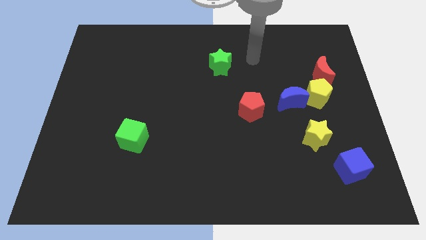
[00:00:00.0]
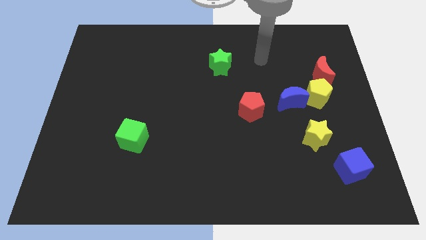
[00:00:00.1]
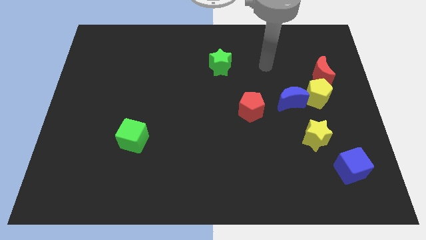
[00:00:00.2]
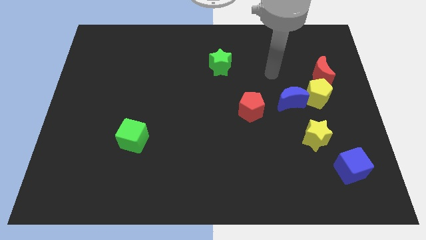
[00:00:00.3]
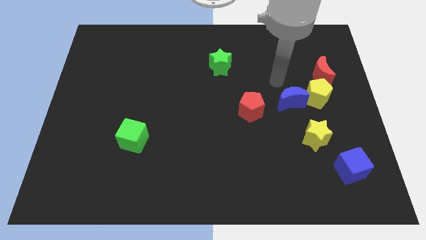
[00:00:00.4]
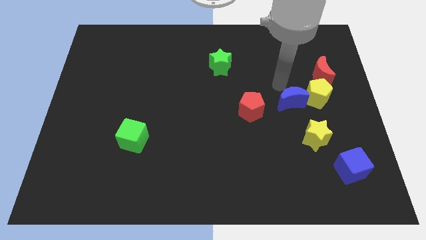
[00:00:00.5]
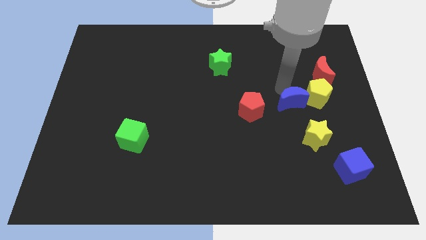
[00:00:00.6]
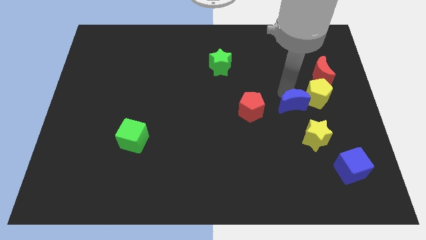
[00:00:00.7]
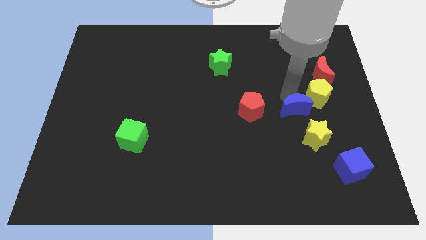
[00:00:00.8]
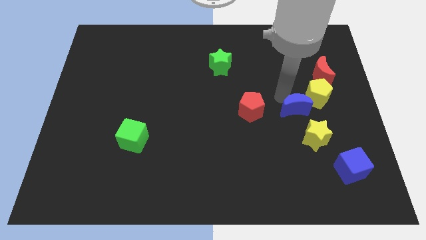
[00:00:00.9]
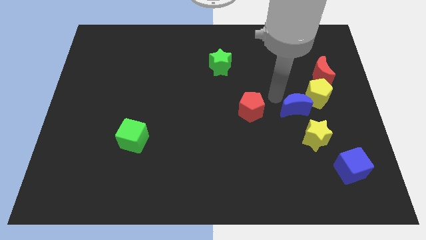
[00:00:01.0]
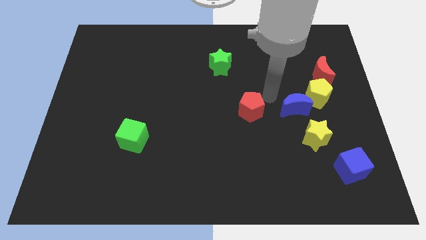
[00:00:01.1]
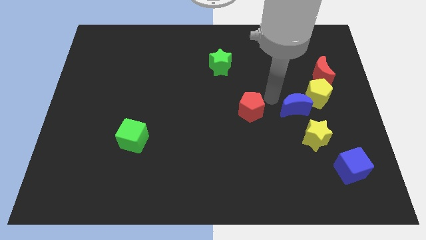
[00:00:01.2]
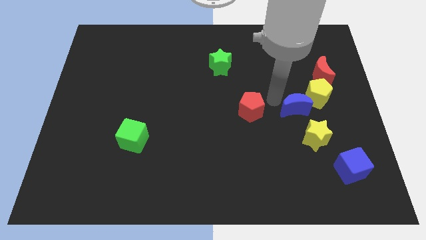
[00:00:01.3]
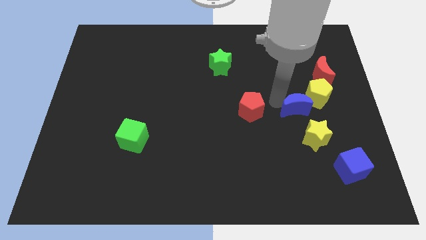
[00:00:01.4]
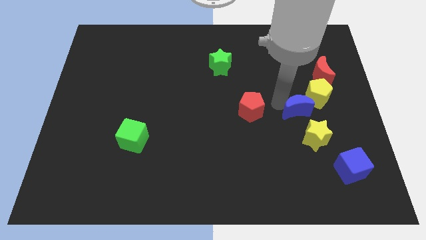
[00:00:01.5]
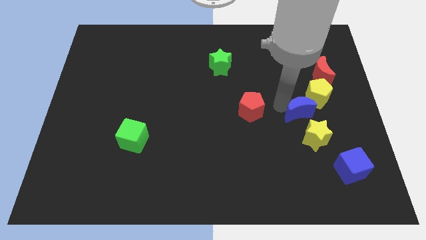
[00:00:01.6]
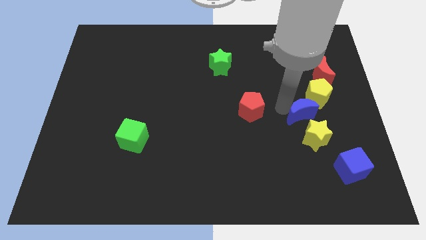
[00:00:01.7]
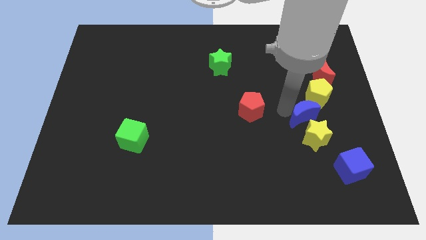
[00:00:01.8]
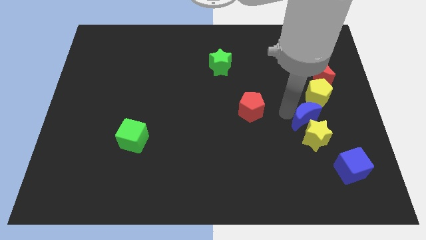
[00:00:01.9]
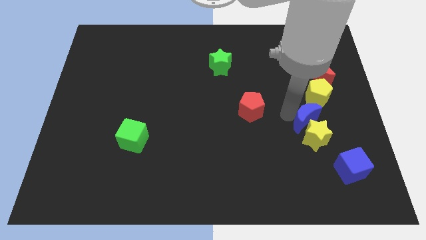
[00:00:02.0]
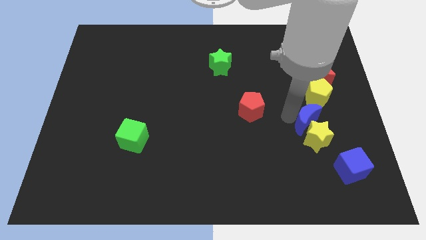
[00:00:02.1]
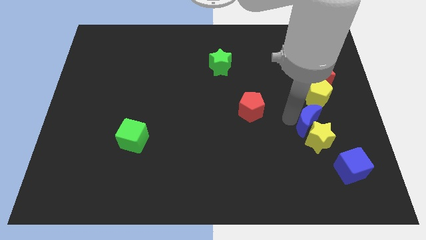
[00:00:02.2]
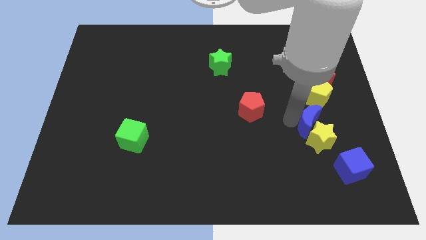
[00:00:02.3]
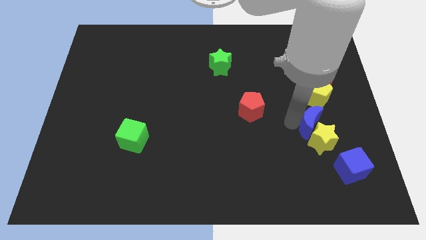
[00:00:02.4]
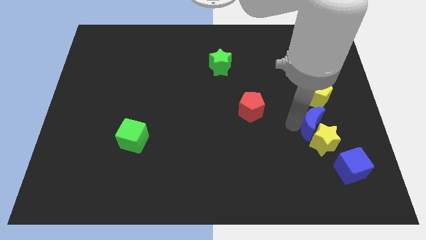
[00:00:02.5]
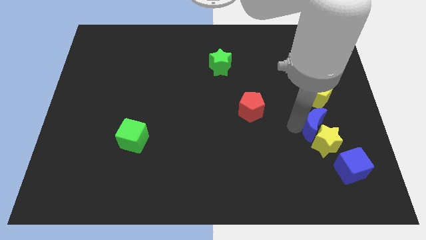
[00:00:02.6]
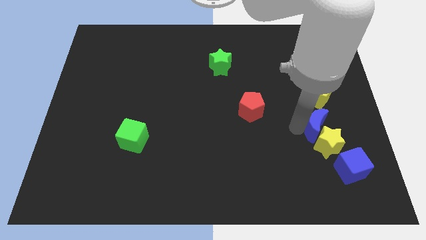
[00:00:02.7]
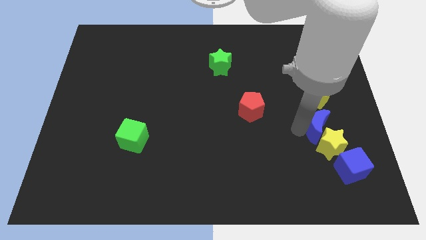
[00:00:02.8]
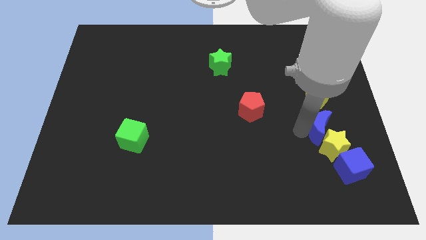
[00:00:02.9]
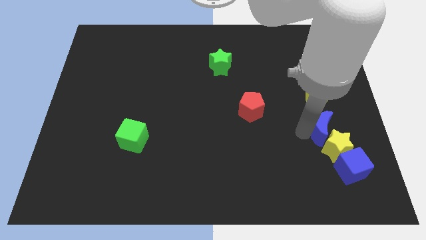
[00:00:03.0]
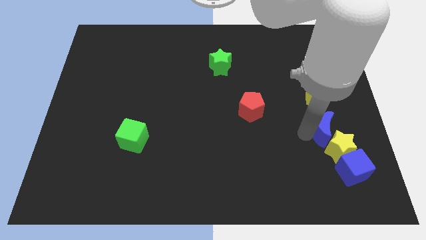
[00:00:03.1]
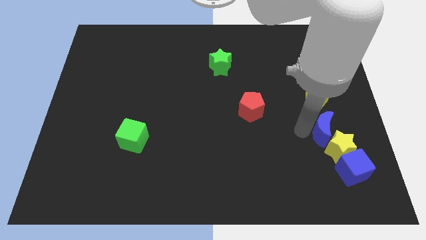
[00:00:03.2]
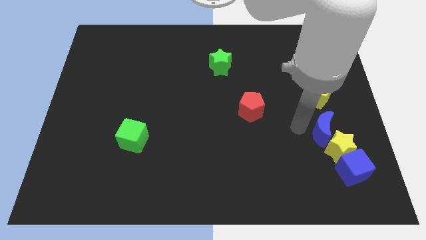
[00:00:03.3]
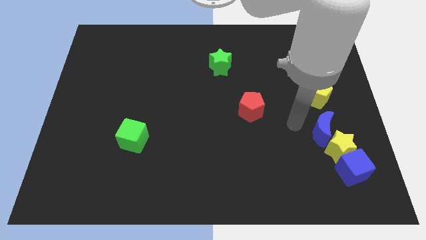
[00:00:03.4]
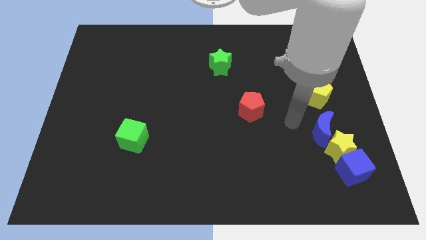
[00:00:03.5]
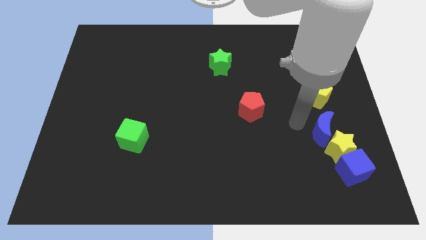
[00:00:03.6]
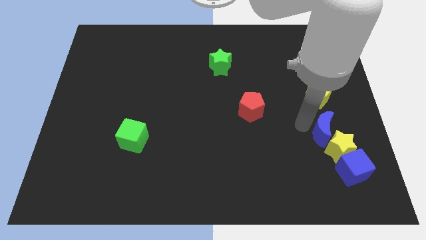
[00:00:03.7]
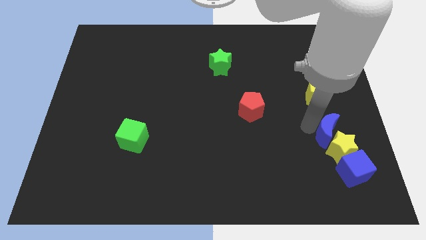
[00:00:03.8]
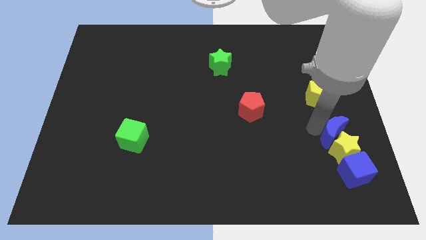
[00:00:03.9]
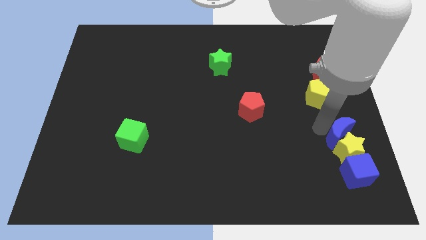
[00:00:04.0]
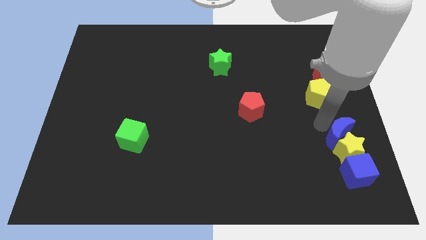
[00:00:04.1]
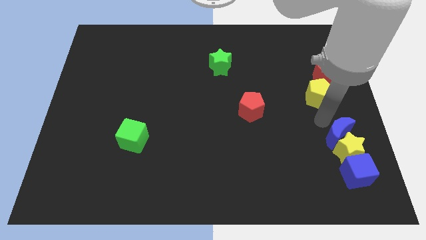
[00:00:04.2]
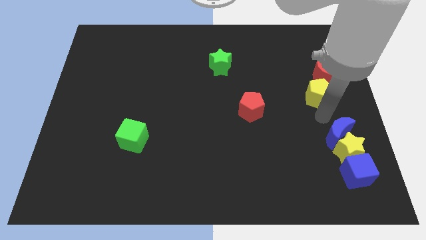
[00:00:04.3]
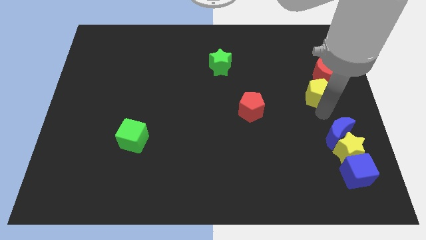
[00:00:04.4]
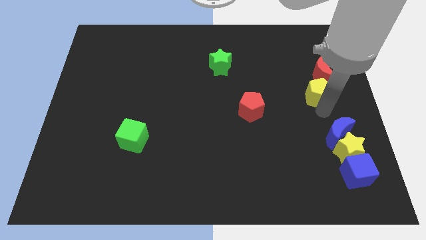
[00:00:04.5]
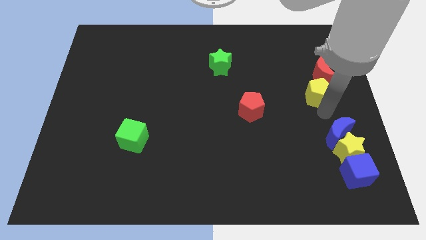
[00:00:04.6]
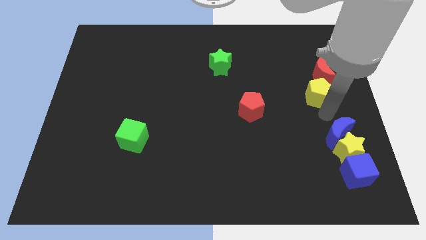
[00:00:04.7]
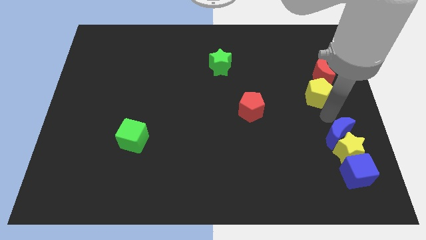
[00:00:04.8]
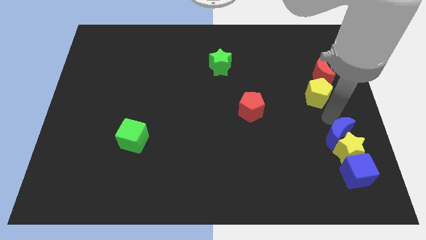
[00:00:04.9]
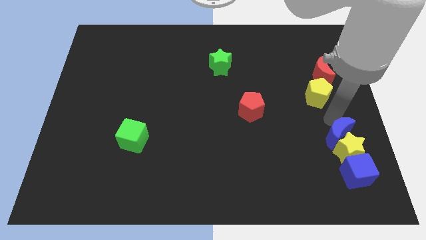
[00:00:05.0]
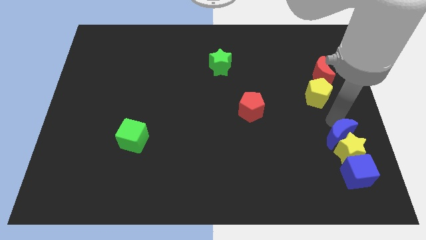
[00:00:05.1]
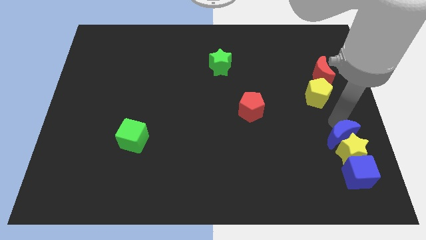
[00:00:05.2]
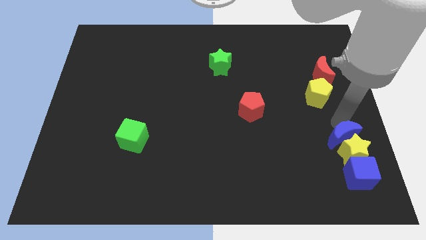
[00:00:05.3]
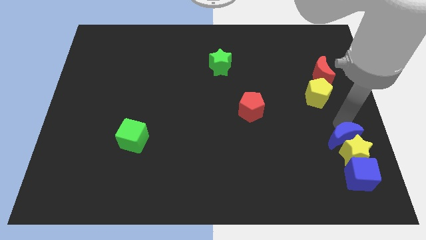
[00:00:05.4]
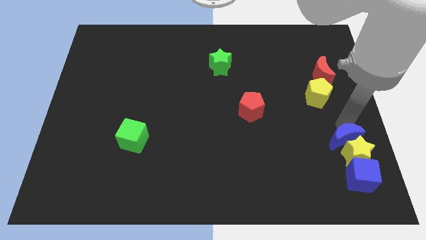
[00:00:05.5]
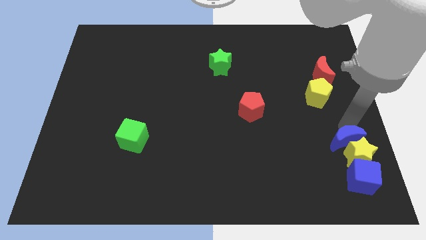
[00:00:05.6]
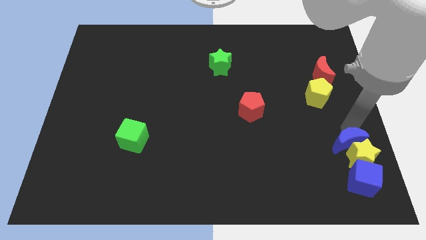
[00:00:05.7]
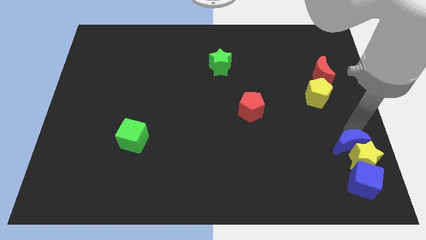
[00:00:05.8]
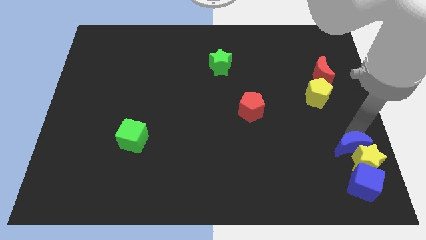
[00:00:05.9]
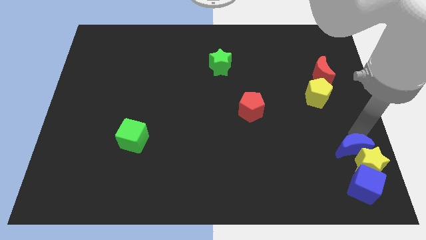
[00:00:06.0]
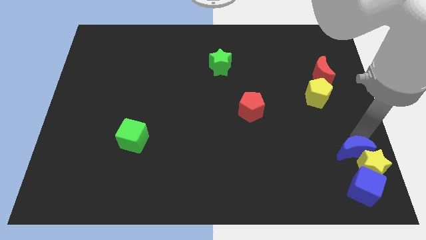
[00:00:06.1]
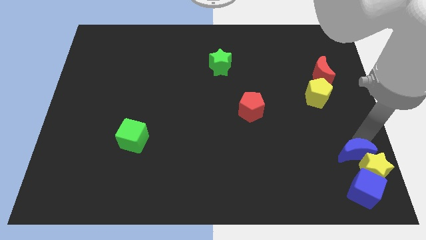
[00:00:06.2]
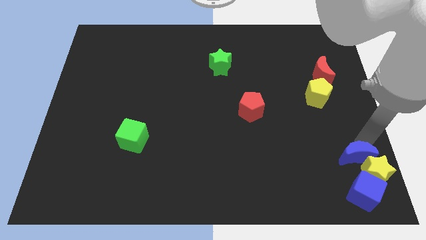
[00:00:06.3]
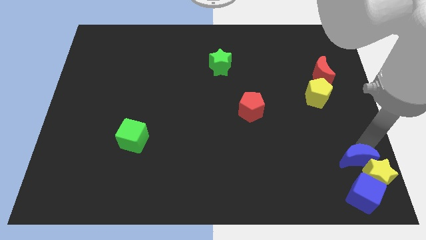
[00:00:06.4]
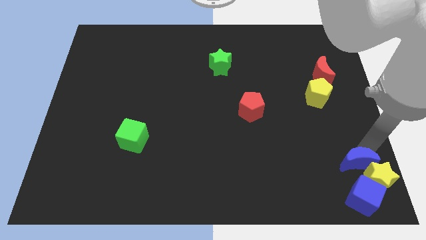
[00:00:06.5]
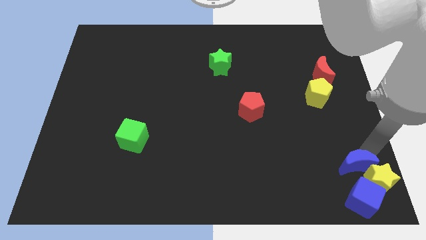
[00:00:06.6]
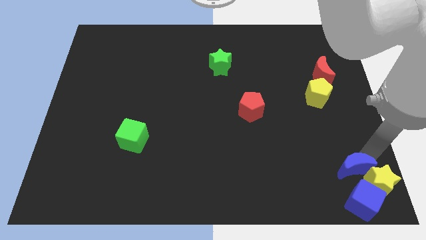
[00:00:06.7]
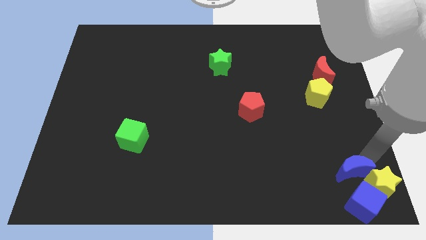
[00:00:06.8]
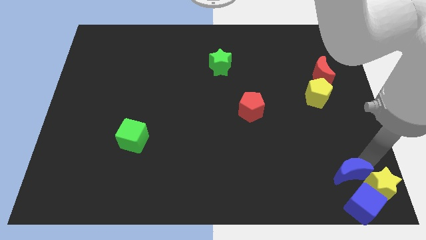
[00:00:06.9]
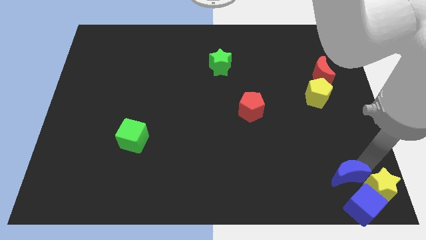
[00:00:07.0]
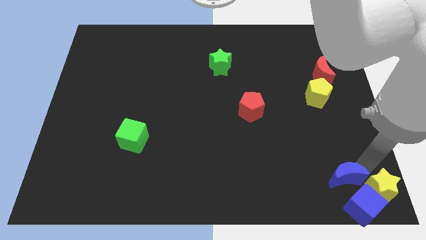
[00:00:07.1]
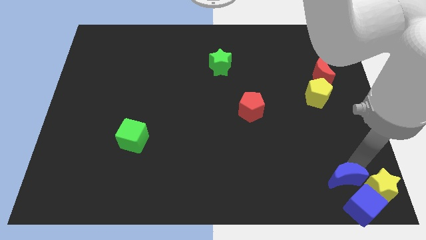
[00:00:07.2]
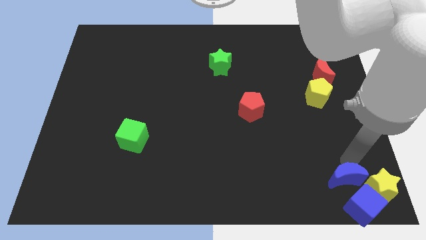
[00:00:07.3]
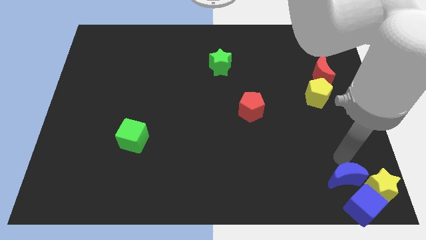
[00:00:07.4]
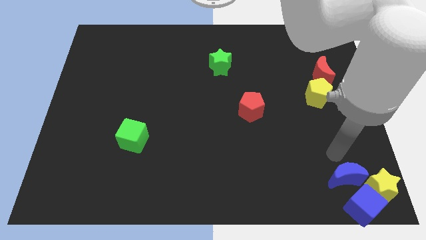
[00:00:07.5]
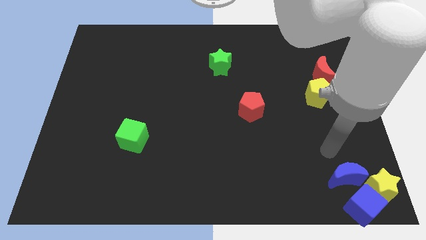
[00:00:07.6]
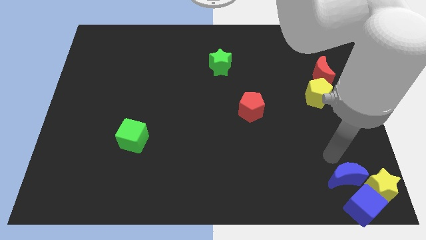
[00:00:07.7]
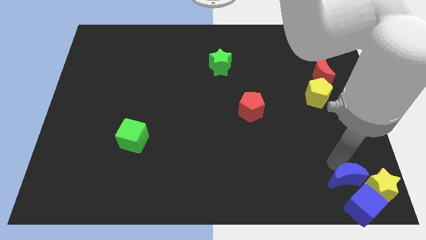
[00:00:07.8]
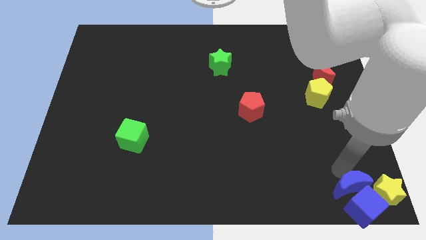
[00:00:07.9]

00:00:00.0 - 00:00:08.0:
push the blue moon towards the blue cube

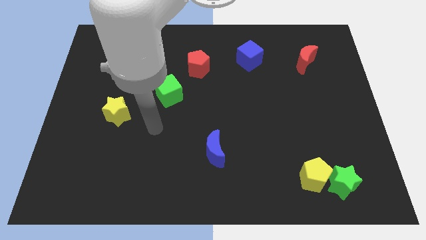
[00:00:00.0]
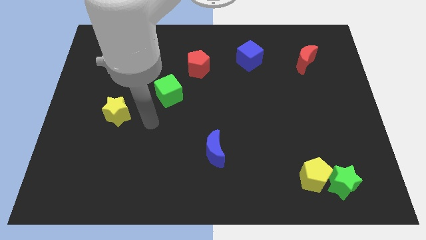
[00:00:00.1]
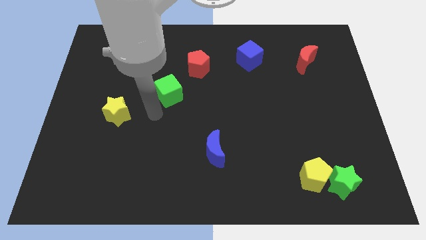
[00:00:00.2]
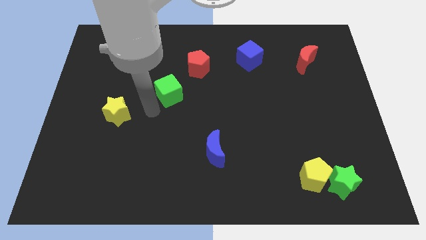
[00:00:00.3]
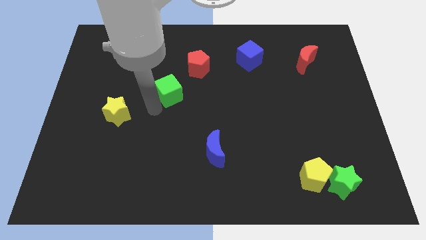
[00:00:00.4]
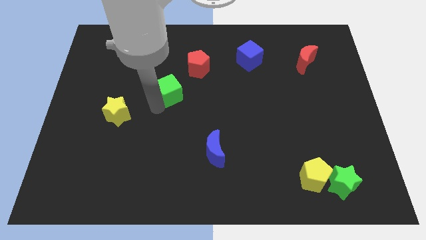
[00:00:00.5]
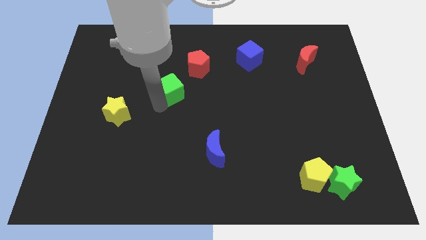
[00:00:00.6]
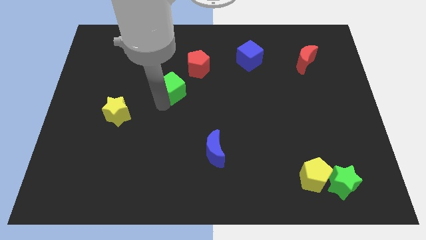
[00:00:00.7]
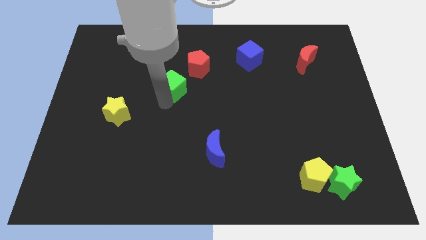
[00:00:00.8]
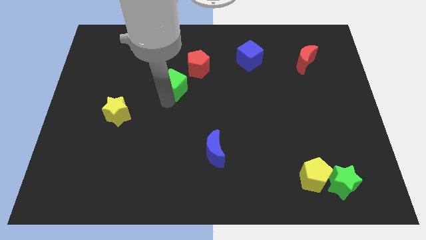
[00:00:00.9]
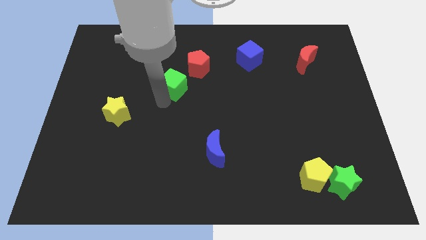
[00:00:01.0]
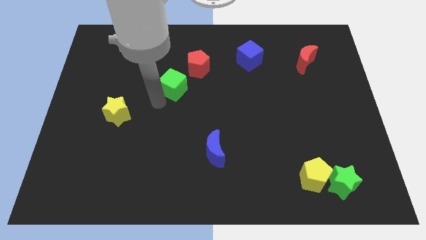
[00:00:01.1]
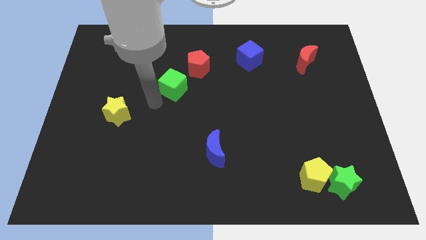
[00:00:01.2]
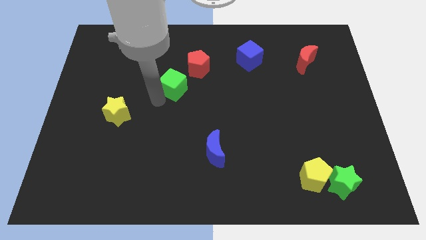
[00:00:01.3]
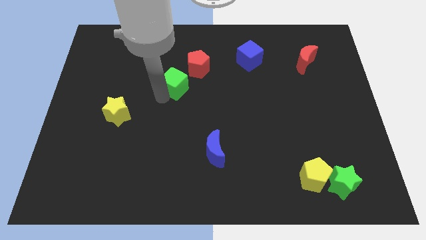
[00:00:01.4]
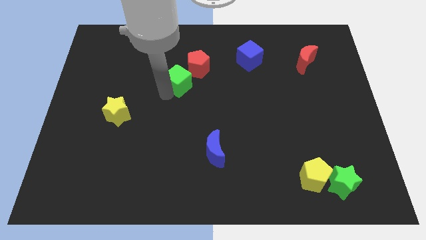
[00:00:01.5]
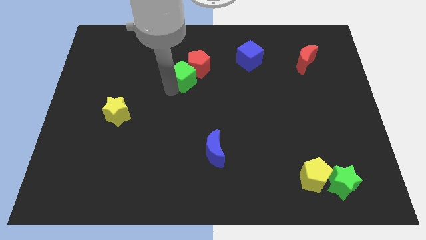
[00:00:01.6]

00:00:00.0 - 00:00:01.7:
push the green cube next to the red pentagon
